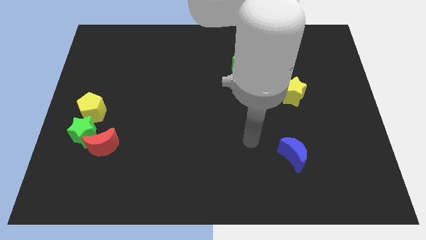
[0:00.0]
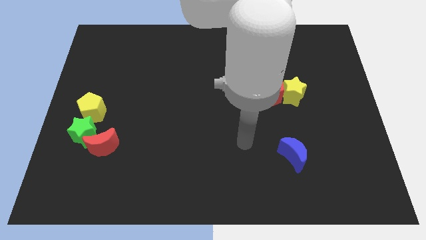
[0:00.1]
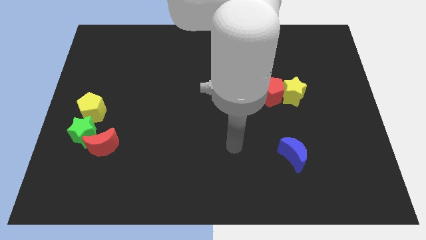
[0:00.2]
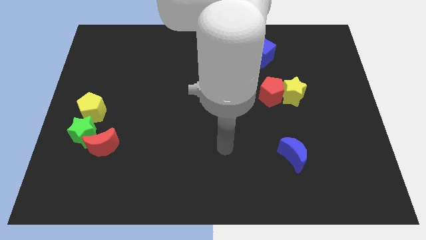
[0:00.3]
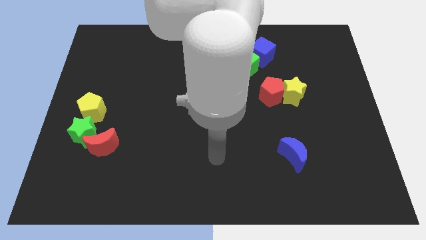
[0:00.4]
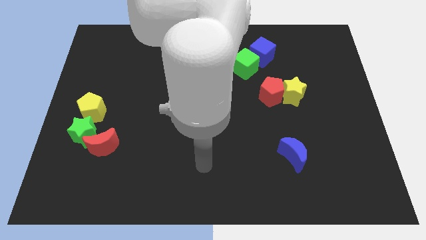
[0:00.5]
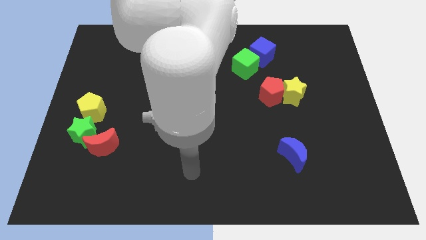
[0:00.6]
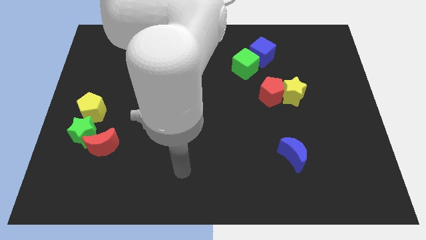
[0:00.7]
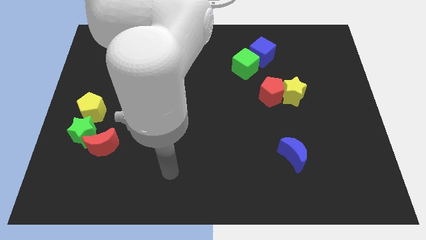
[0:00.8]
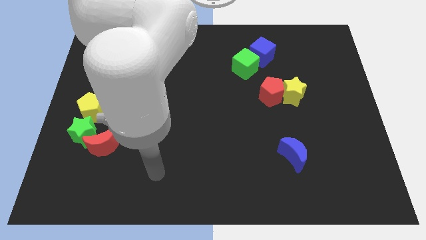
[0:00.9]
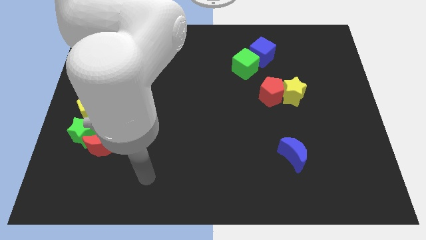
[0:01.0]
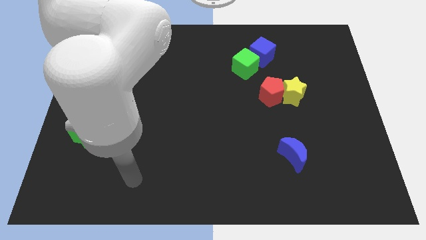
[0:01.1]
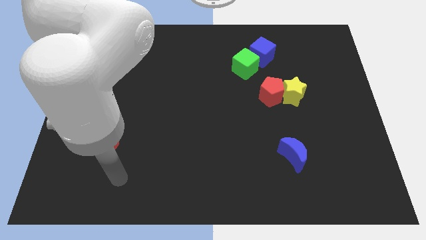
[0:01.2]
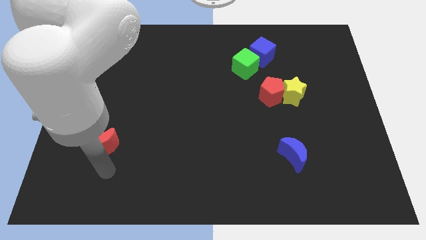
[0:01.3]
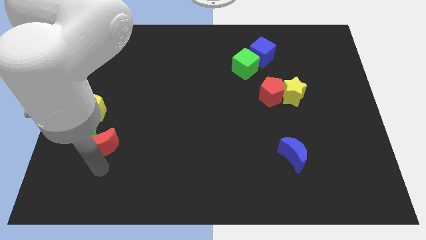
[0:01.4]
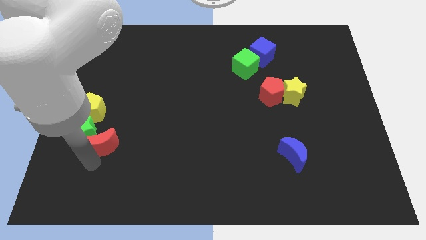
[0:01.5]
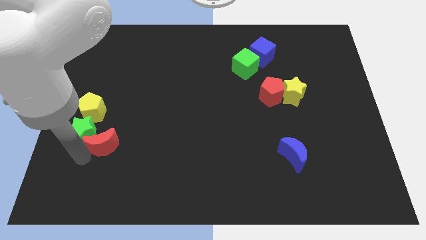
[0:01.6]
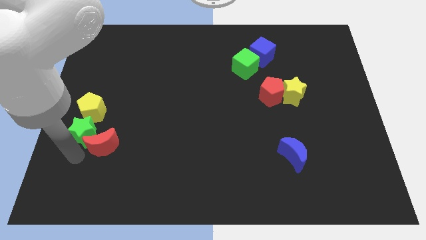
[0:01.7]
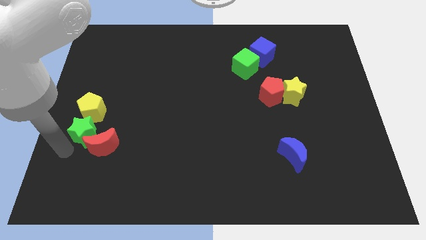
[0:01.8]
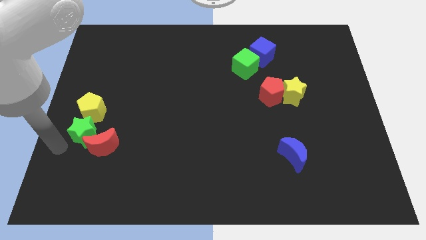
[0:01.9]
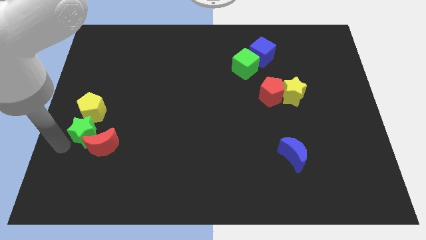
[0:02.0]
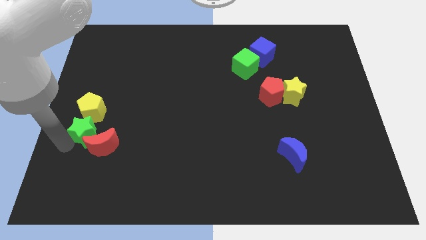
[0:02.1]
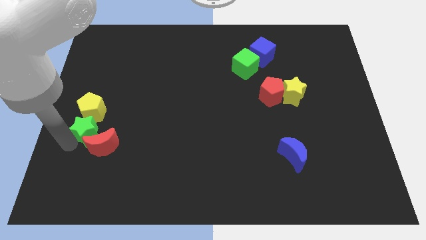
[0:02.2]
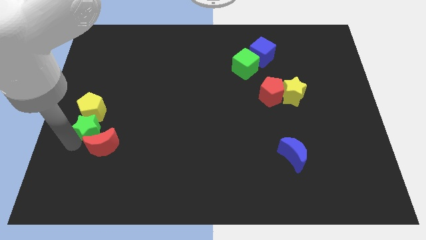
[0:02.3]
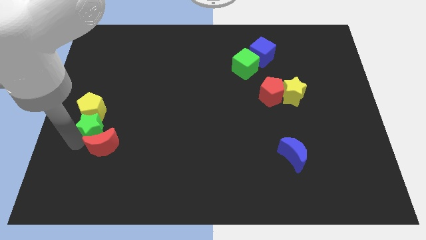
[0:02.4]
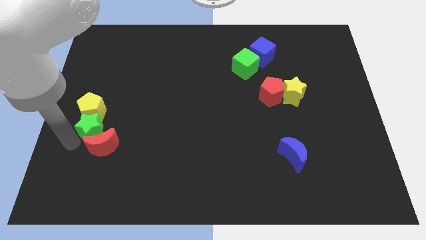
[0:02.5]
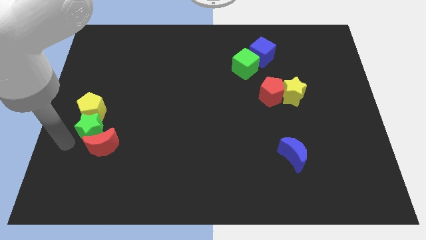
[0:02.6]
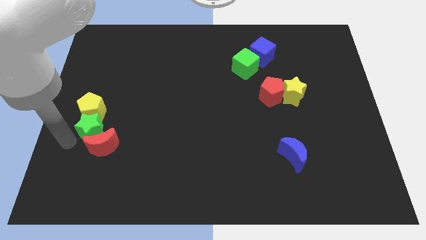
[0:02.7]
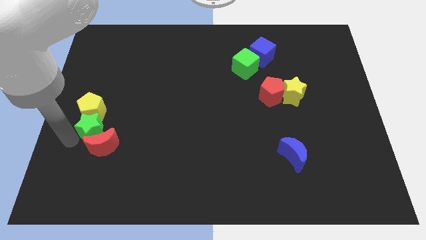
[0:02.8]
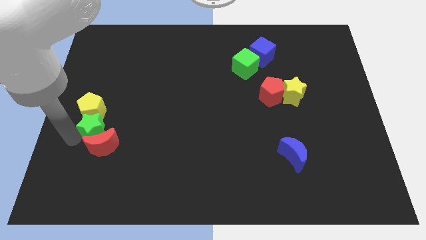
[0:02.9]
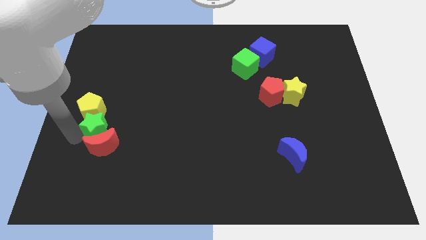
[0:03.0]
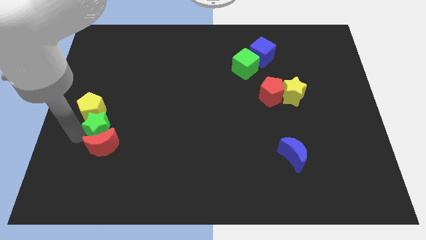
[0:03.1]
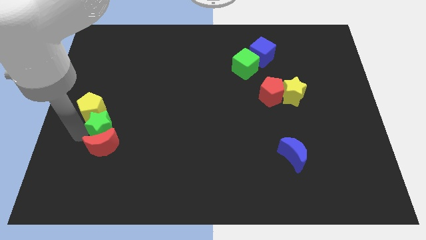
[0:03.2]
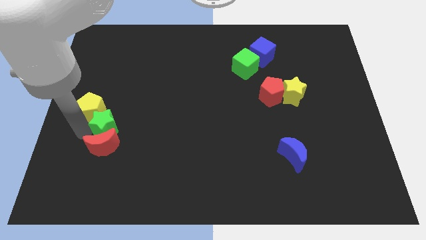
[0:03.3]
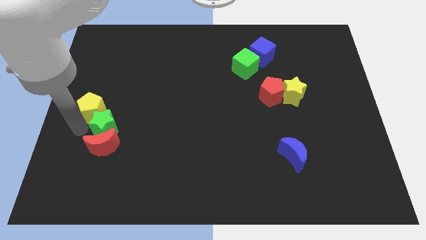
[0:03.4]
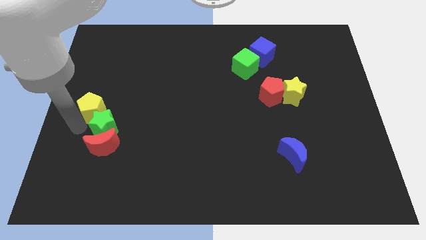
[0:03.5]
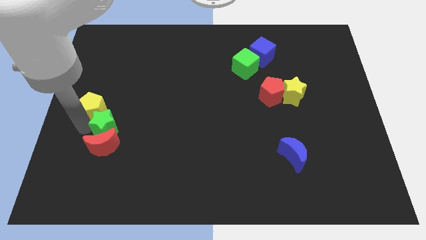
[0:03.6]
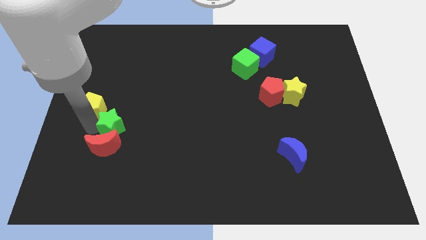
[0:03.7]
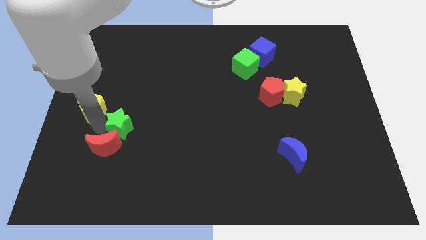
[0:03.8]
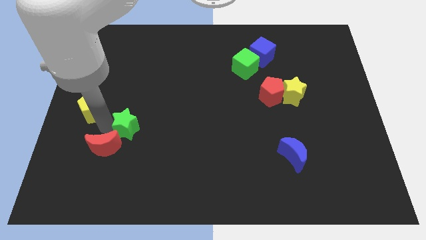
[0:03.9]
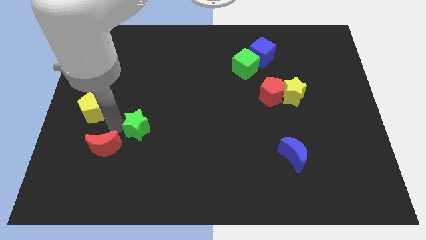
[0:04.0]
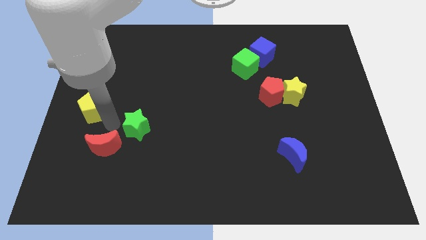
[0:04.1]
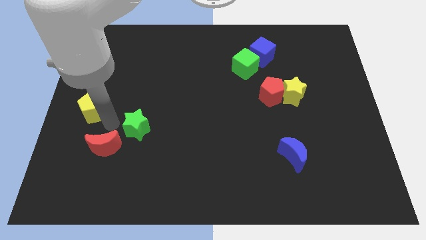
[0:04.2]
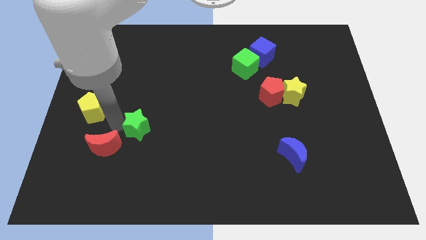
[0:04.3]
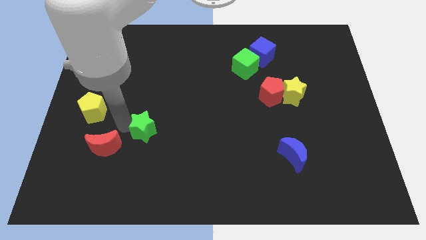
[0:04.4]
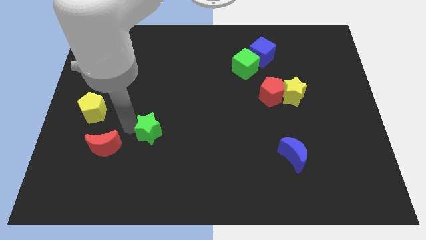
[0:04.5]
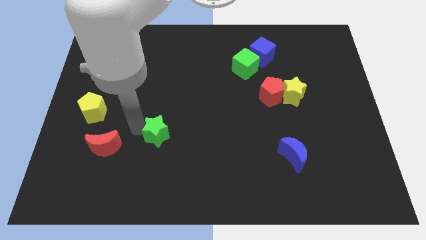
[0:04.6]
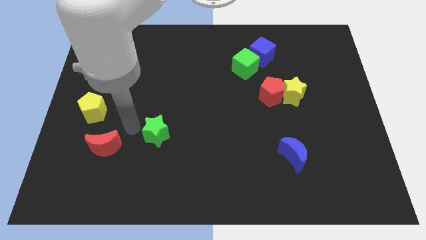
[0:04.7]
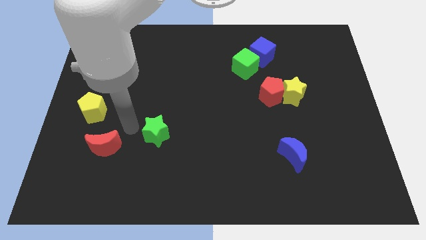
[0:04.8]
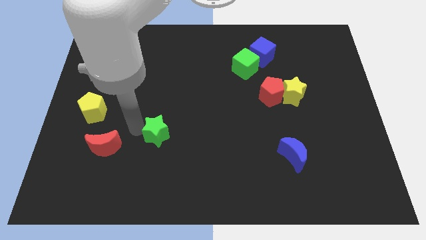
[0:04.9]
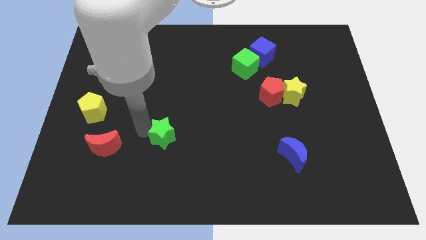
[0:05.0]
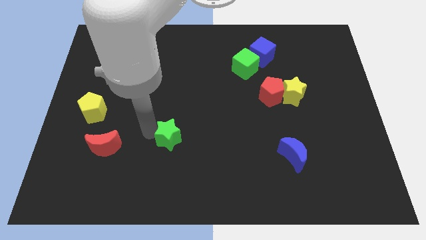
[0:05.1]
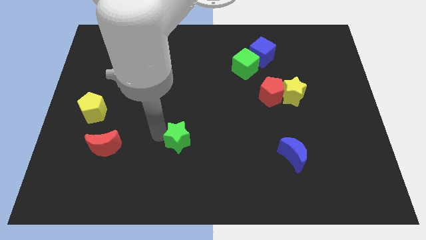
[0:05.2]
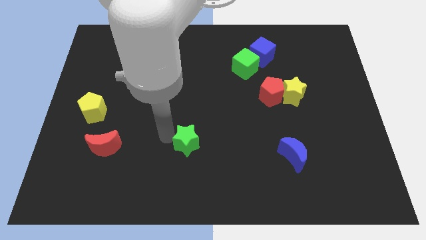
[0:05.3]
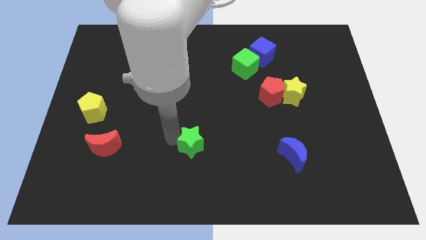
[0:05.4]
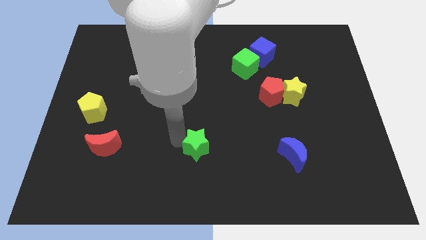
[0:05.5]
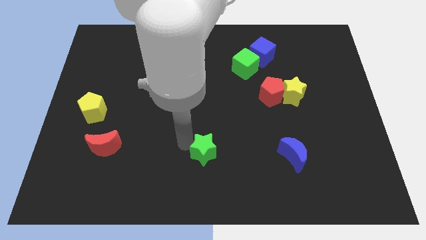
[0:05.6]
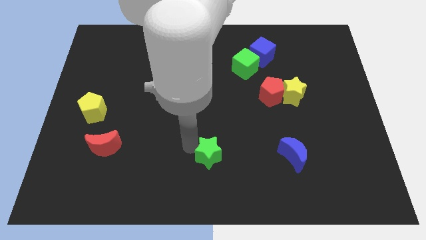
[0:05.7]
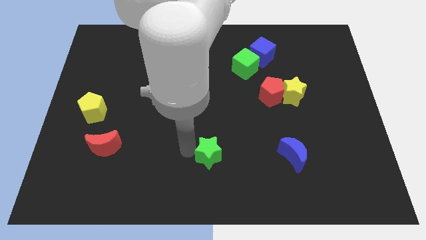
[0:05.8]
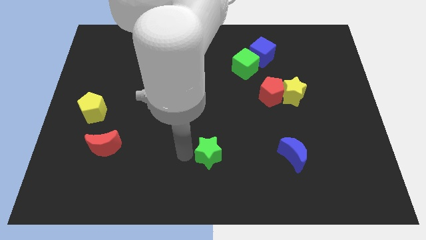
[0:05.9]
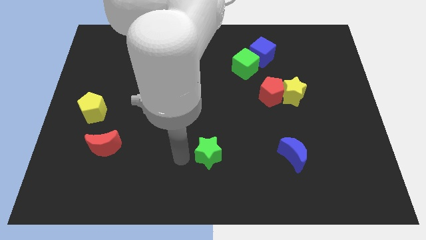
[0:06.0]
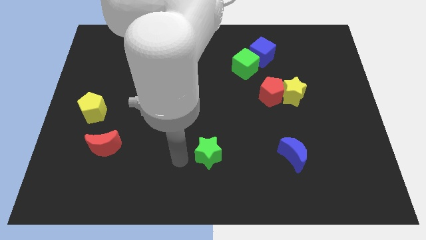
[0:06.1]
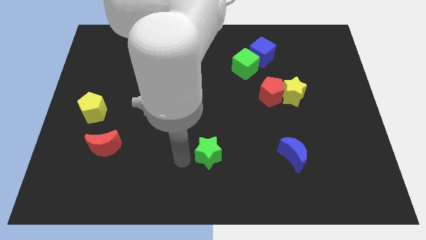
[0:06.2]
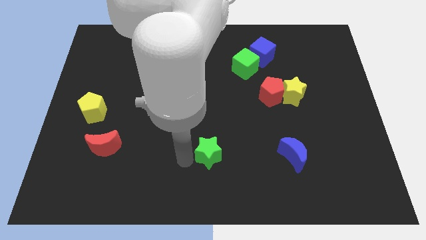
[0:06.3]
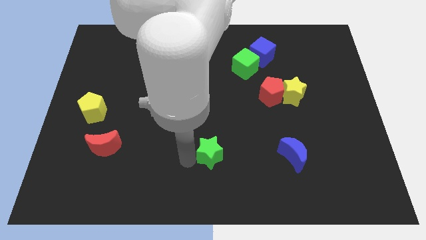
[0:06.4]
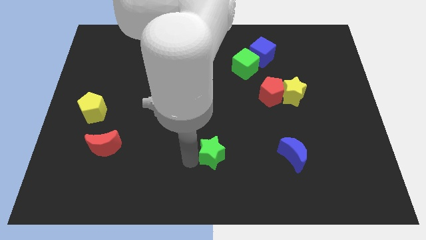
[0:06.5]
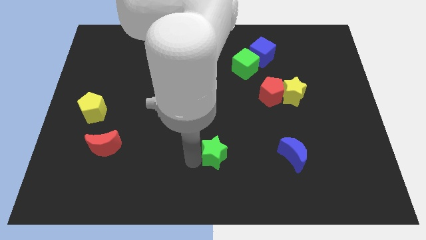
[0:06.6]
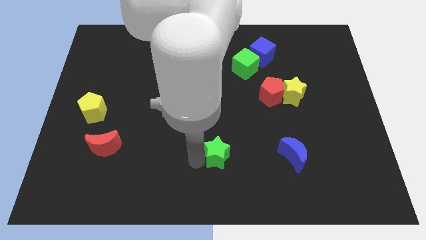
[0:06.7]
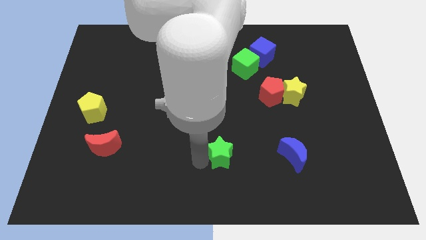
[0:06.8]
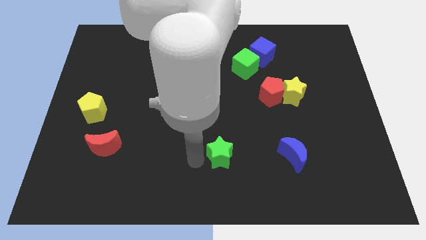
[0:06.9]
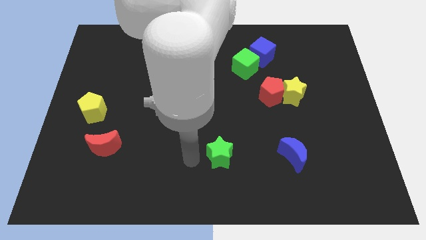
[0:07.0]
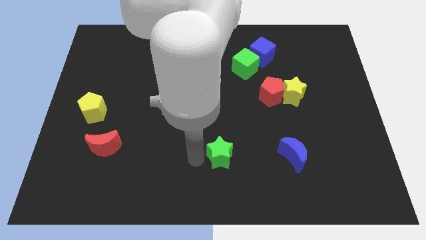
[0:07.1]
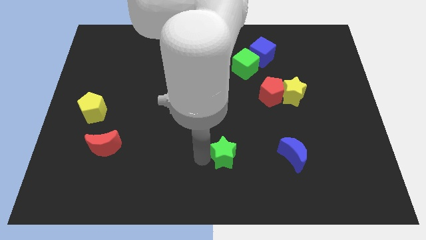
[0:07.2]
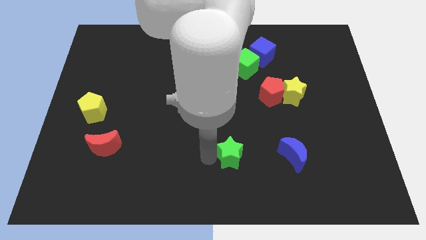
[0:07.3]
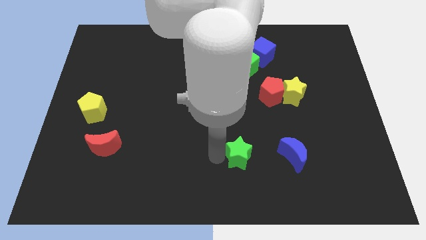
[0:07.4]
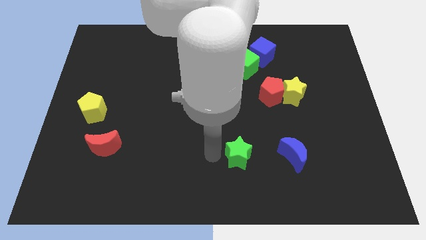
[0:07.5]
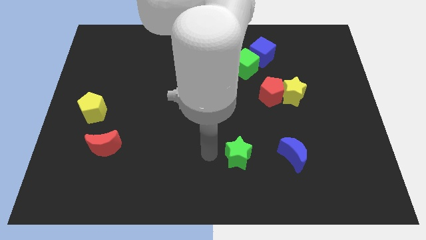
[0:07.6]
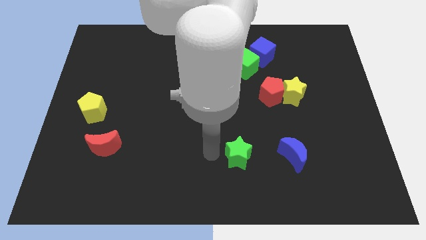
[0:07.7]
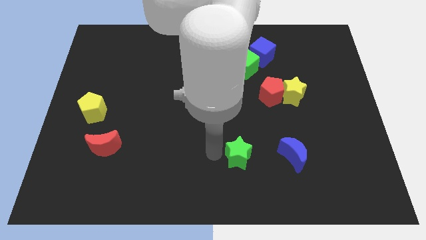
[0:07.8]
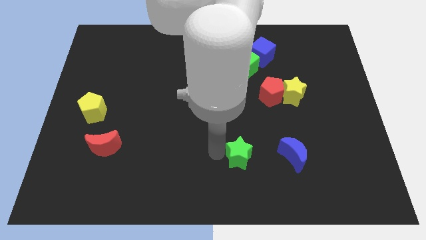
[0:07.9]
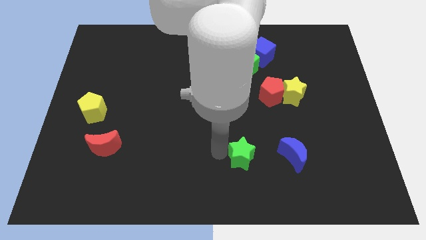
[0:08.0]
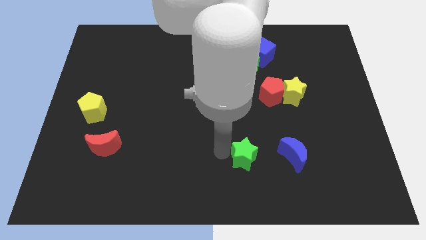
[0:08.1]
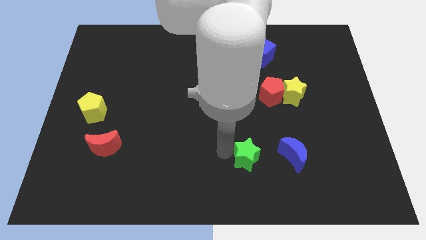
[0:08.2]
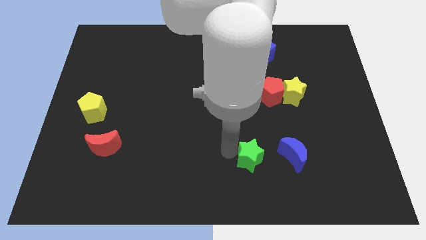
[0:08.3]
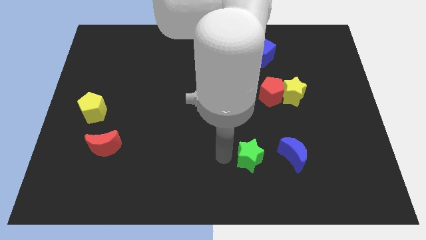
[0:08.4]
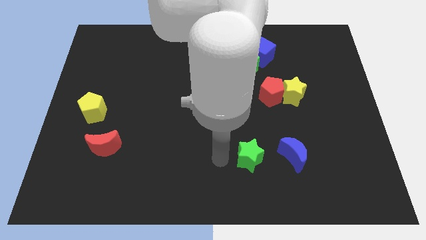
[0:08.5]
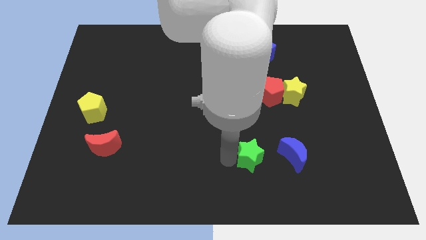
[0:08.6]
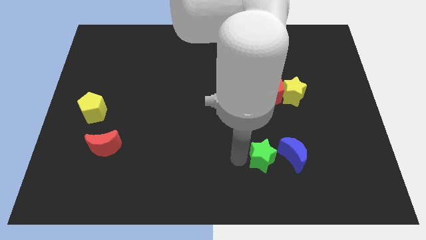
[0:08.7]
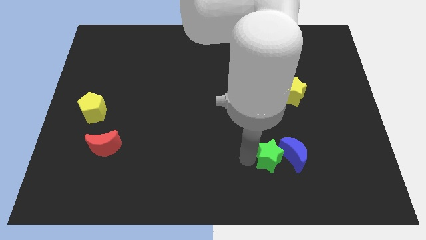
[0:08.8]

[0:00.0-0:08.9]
push the green star to the blue moon
